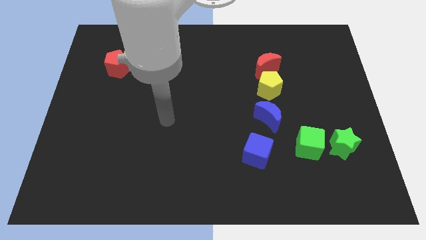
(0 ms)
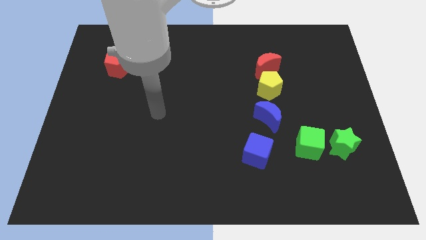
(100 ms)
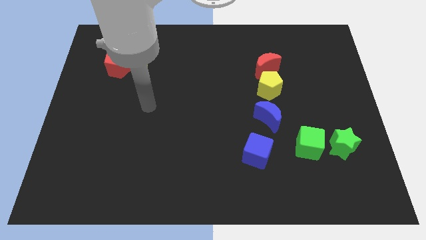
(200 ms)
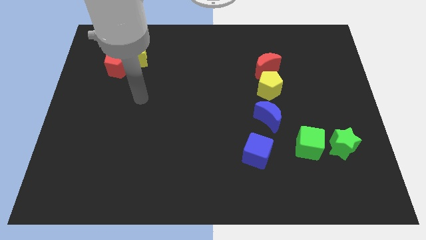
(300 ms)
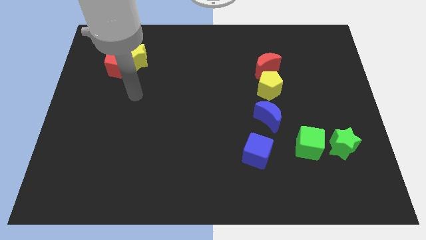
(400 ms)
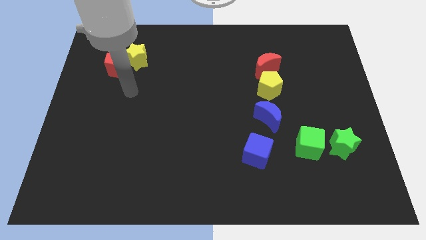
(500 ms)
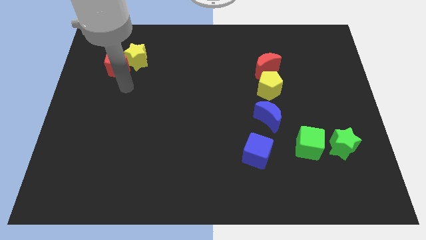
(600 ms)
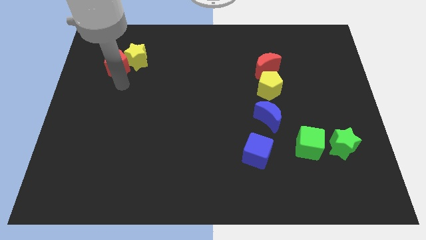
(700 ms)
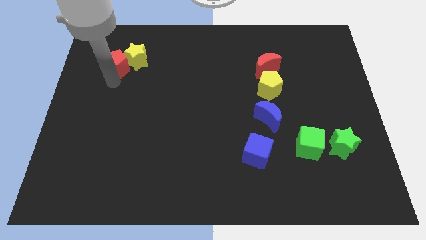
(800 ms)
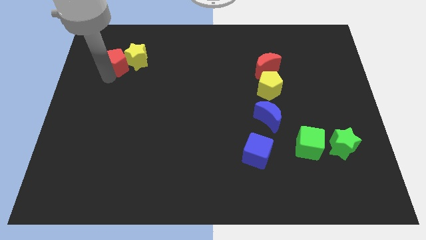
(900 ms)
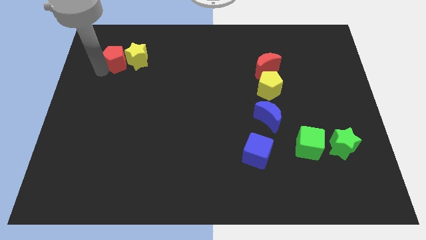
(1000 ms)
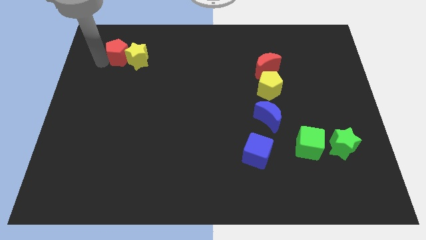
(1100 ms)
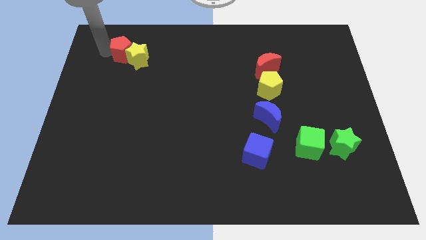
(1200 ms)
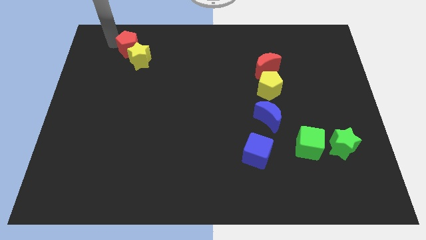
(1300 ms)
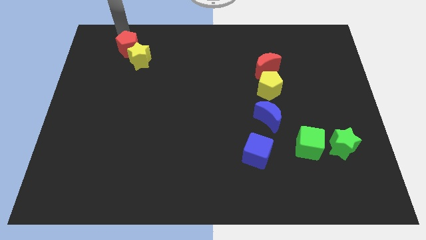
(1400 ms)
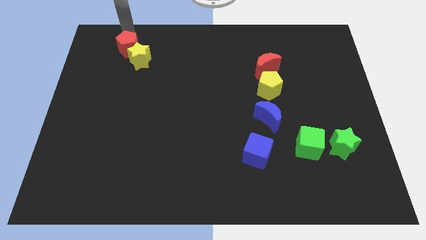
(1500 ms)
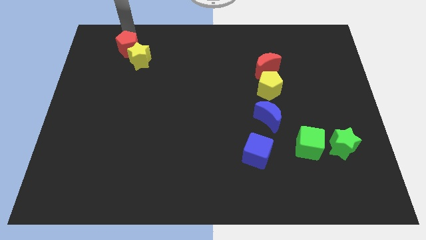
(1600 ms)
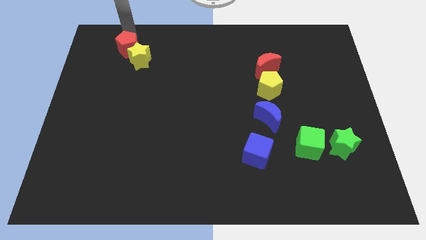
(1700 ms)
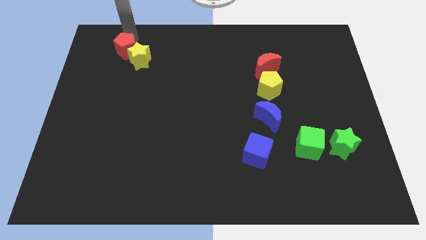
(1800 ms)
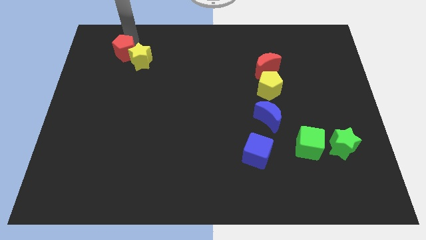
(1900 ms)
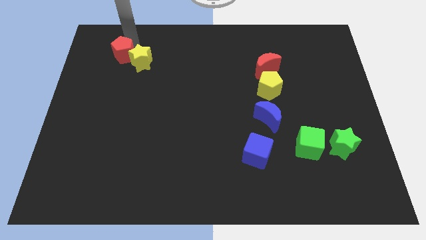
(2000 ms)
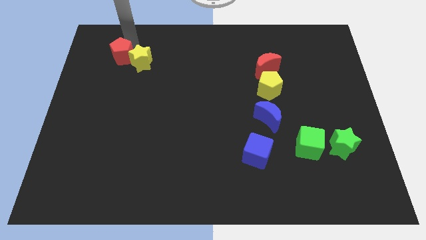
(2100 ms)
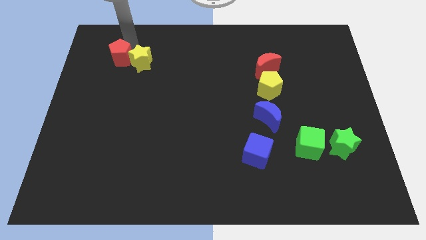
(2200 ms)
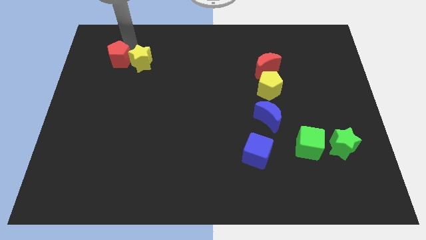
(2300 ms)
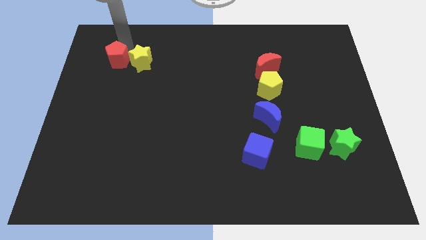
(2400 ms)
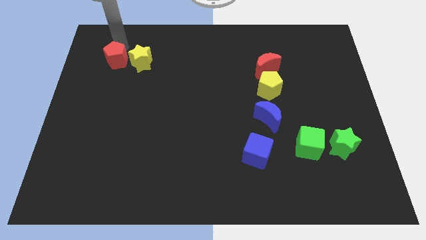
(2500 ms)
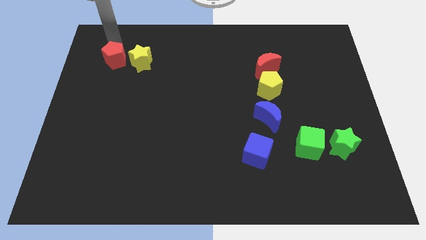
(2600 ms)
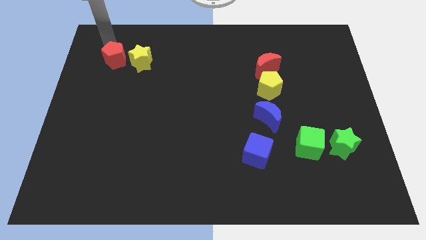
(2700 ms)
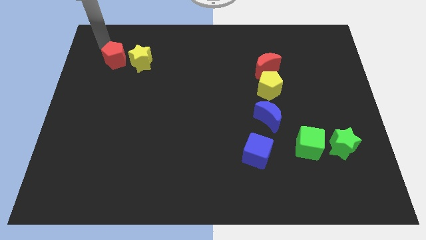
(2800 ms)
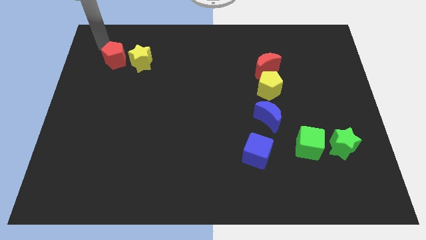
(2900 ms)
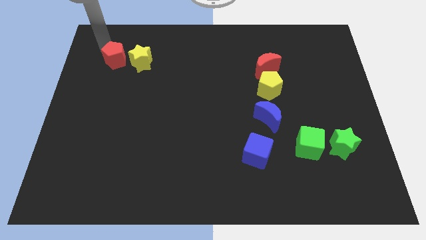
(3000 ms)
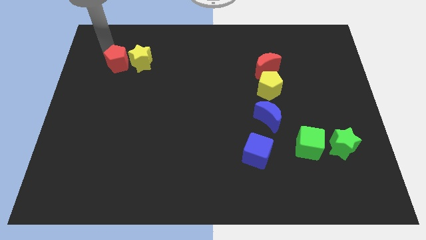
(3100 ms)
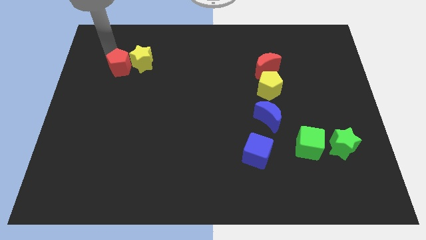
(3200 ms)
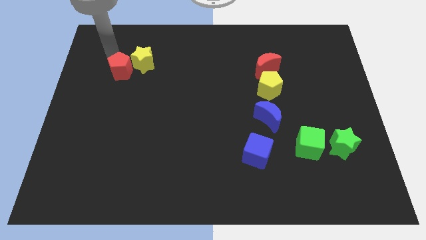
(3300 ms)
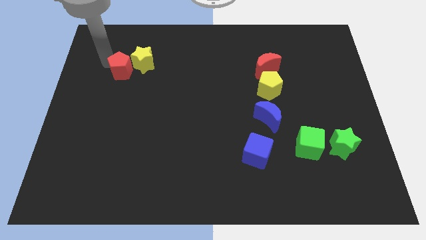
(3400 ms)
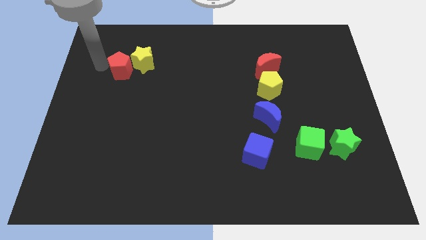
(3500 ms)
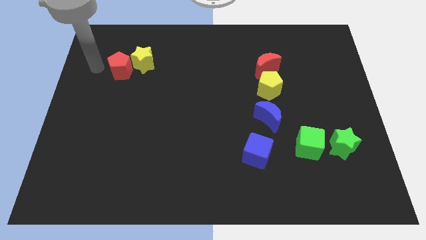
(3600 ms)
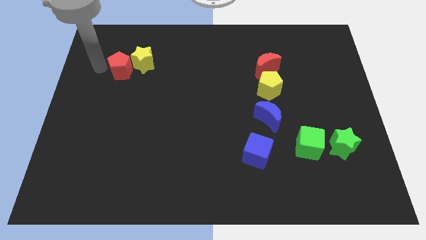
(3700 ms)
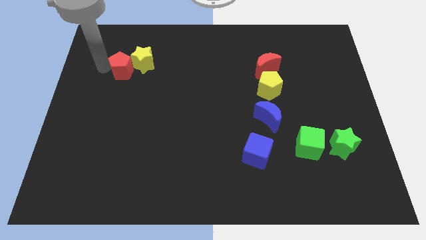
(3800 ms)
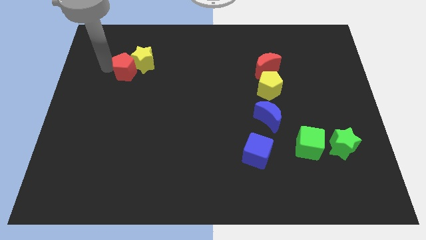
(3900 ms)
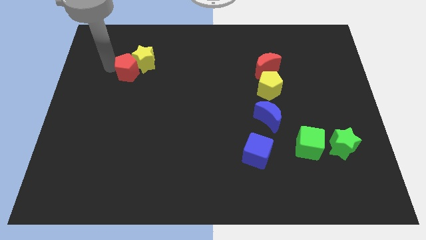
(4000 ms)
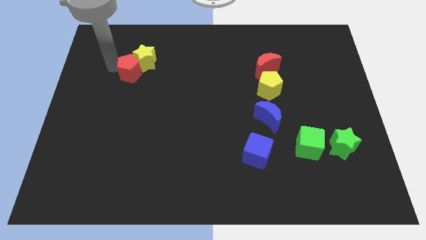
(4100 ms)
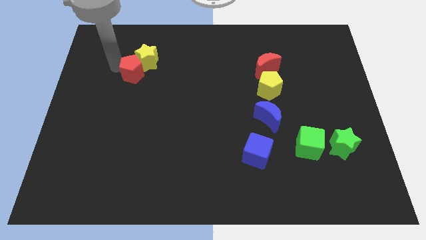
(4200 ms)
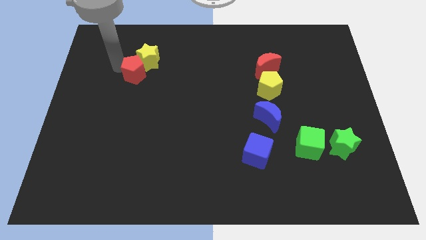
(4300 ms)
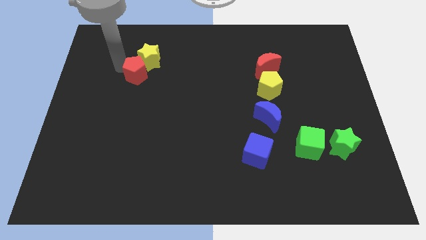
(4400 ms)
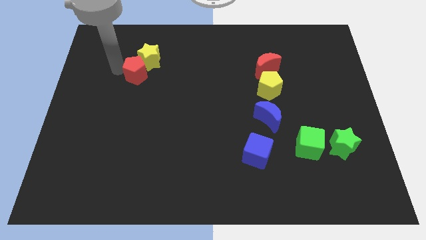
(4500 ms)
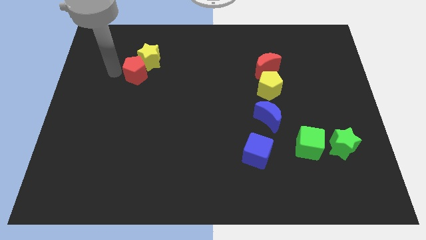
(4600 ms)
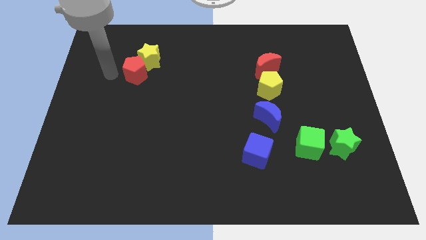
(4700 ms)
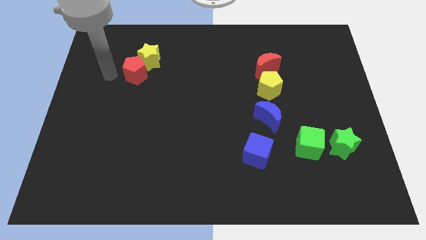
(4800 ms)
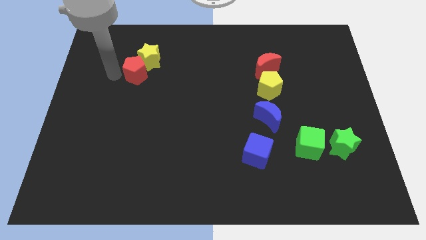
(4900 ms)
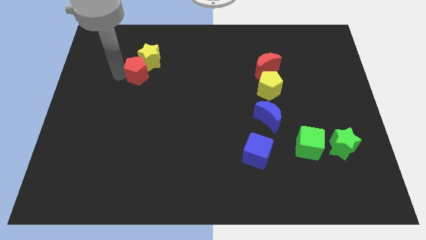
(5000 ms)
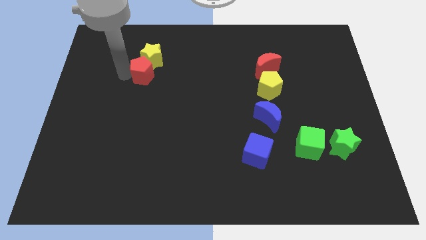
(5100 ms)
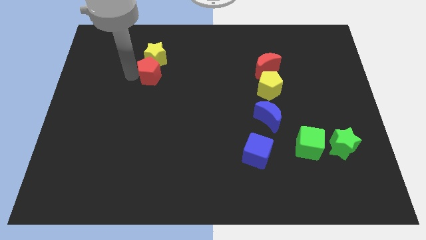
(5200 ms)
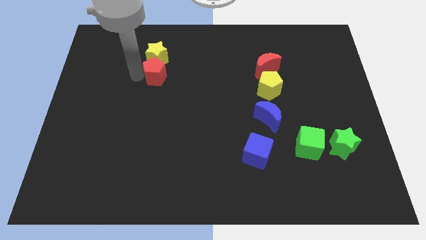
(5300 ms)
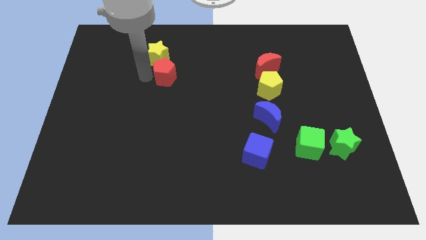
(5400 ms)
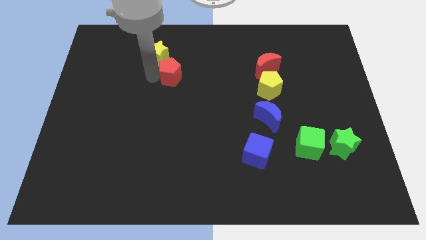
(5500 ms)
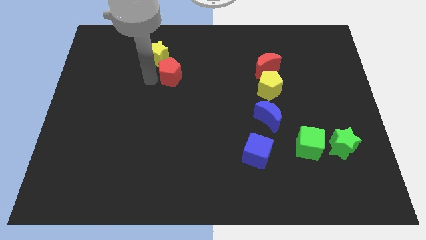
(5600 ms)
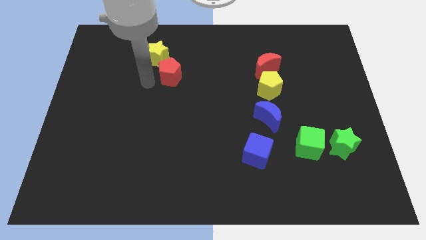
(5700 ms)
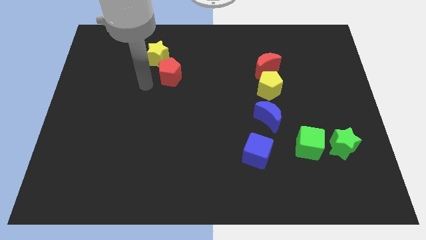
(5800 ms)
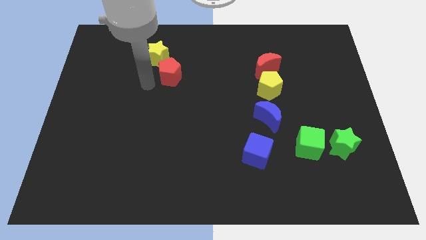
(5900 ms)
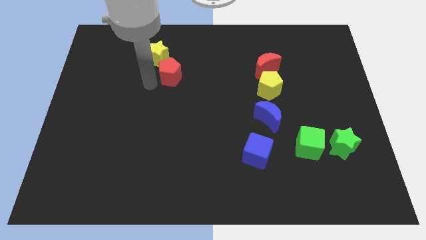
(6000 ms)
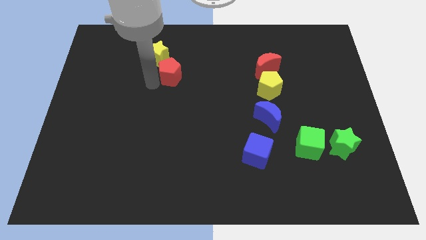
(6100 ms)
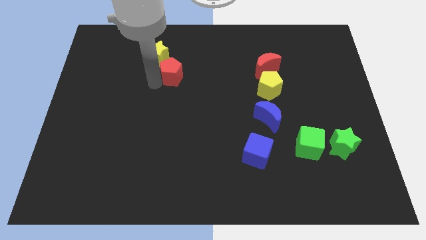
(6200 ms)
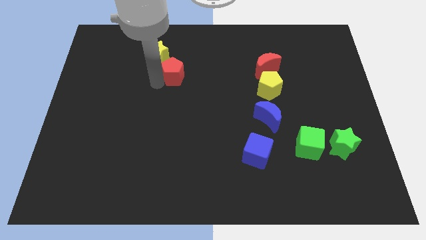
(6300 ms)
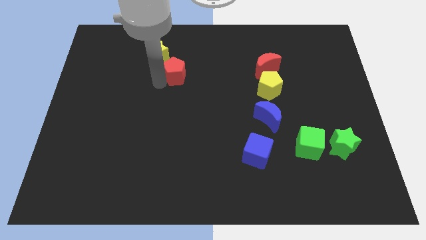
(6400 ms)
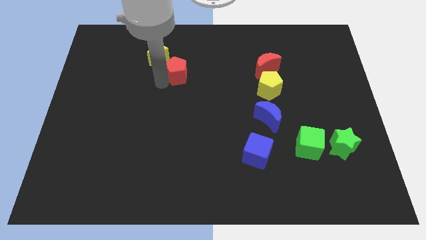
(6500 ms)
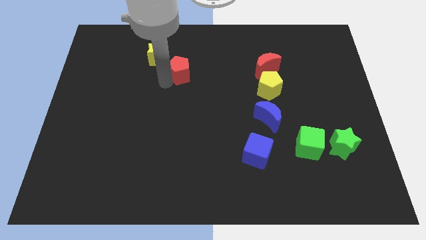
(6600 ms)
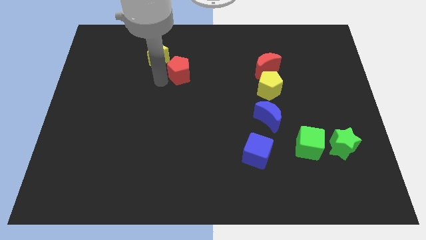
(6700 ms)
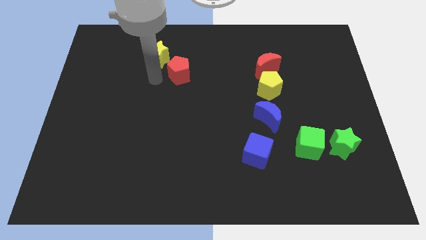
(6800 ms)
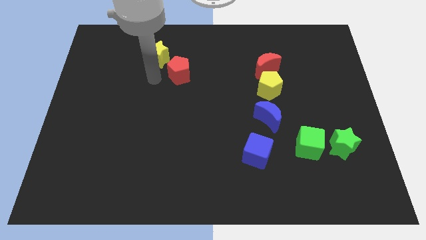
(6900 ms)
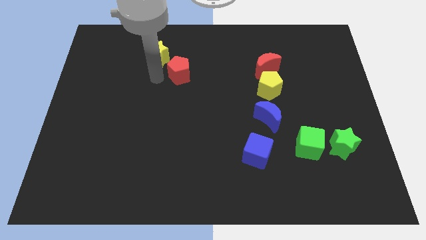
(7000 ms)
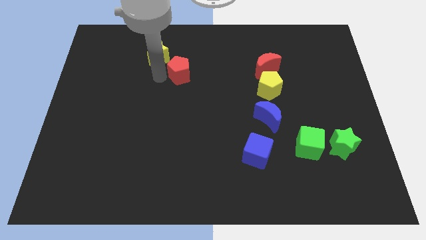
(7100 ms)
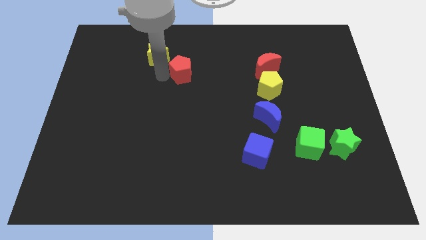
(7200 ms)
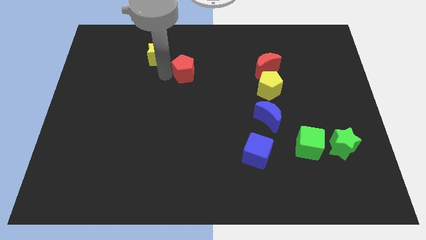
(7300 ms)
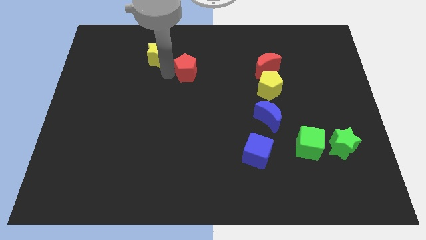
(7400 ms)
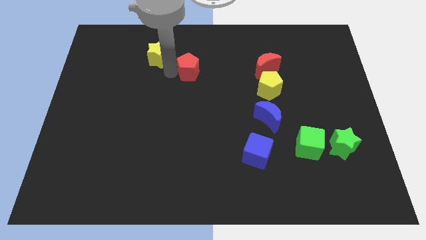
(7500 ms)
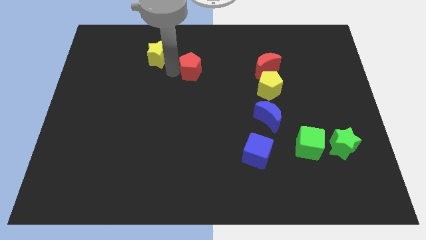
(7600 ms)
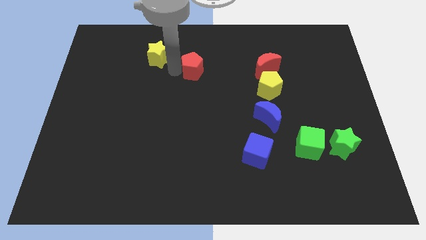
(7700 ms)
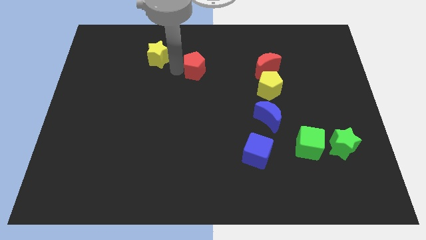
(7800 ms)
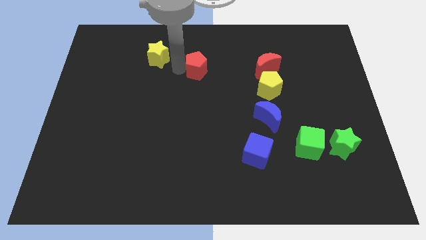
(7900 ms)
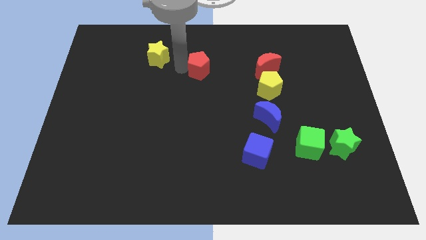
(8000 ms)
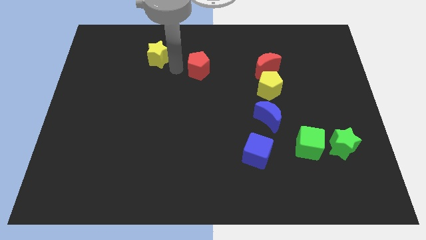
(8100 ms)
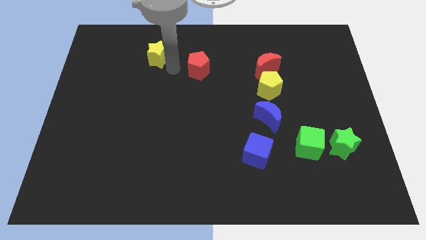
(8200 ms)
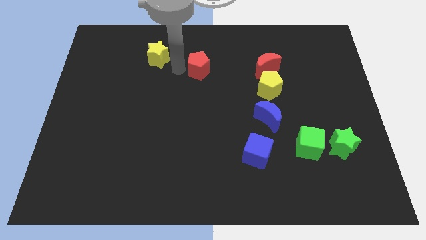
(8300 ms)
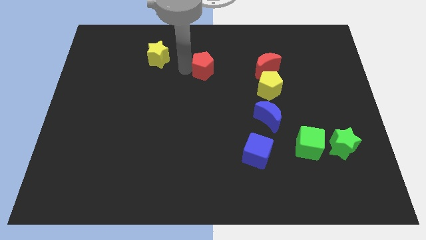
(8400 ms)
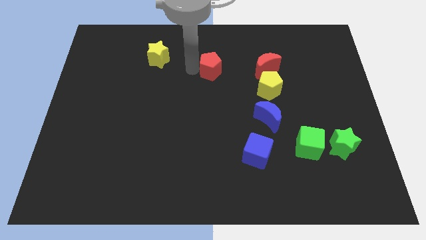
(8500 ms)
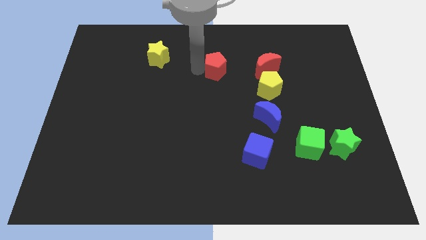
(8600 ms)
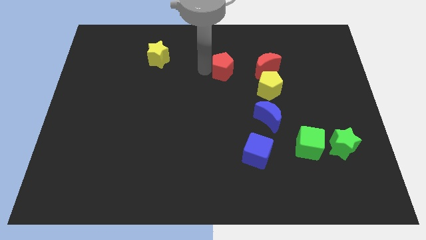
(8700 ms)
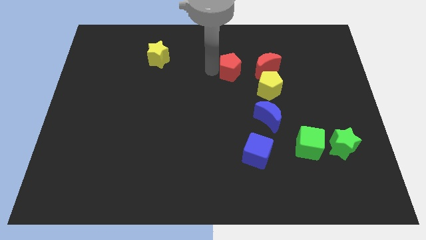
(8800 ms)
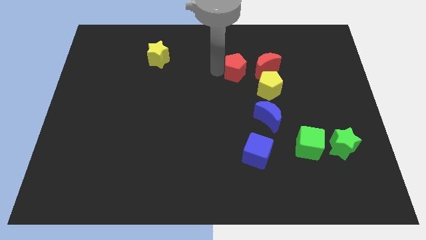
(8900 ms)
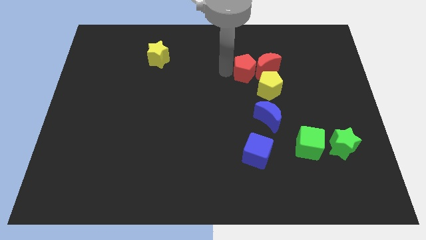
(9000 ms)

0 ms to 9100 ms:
move the red pentagon to the red moon
